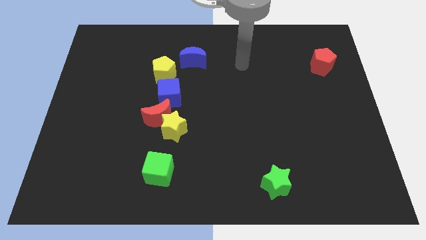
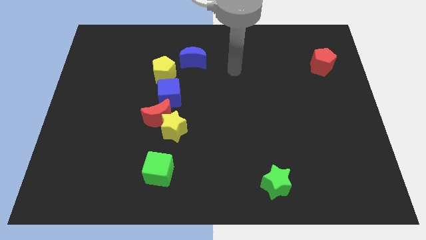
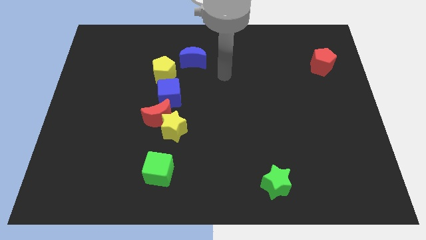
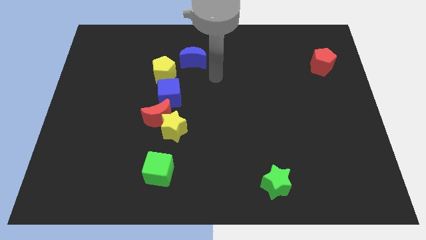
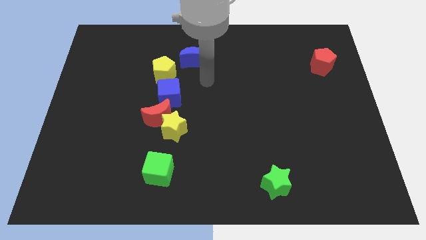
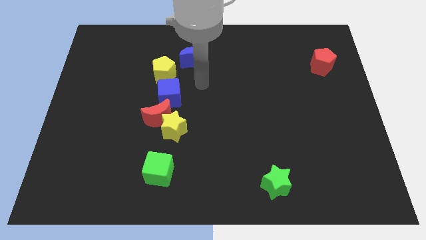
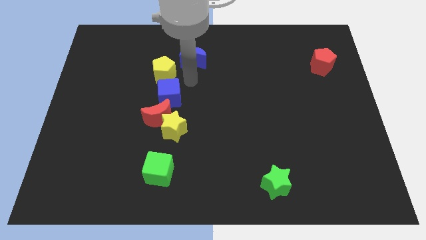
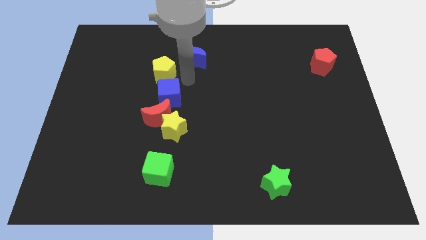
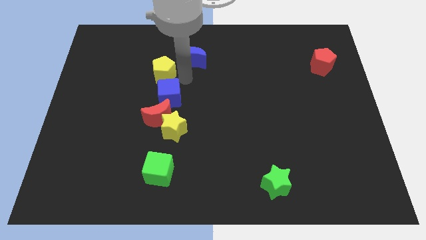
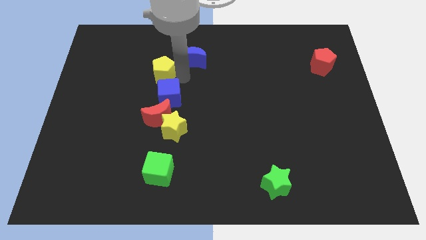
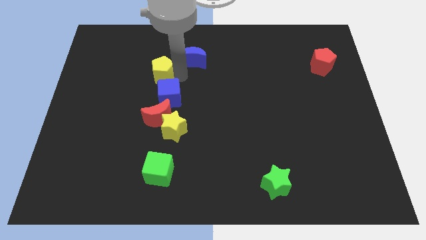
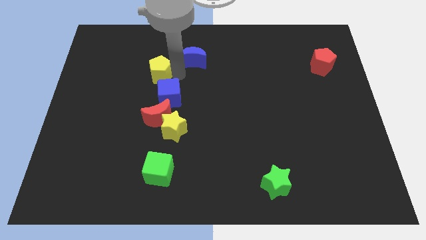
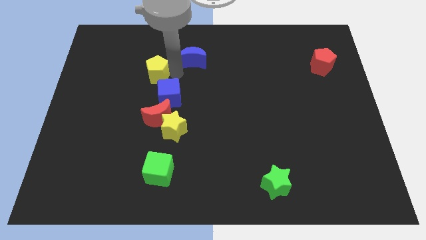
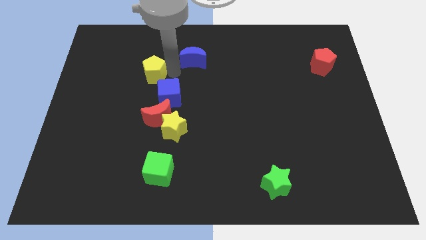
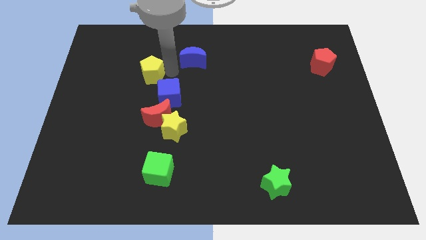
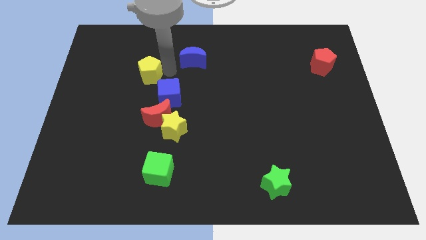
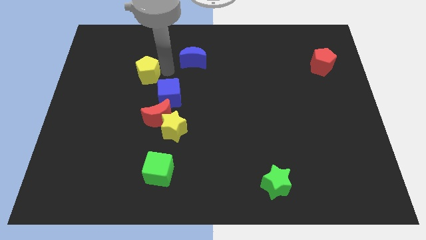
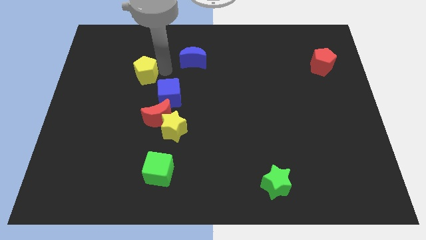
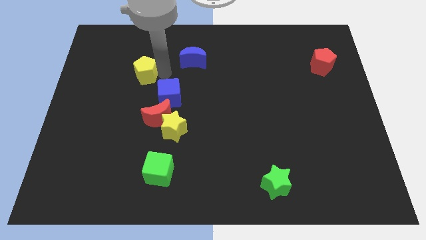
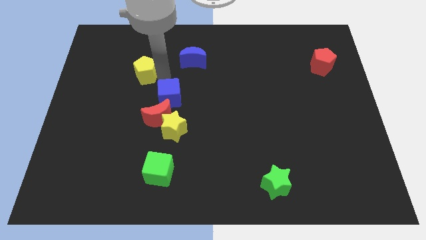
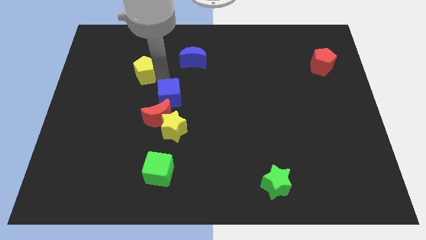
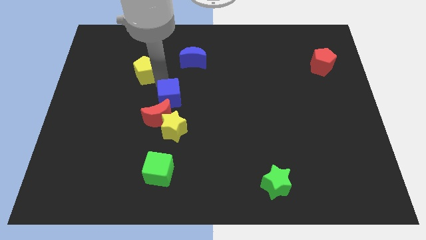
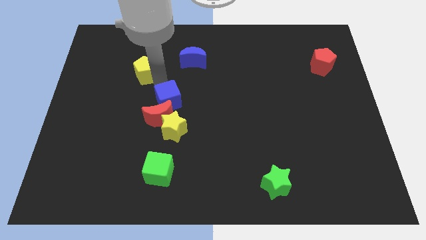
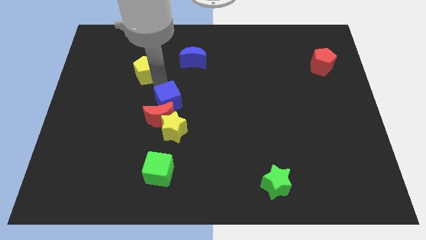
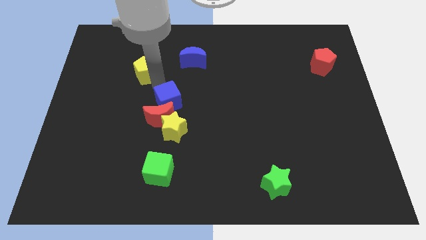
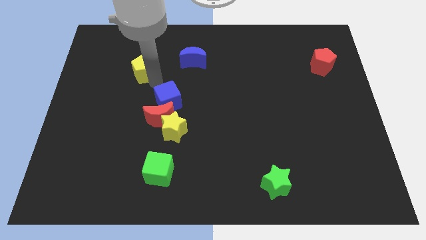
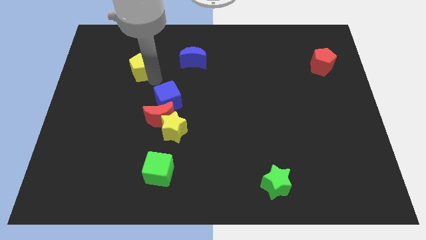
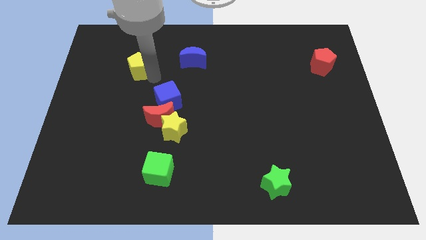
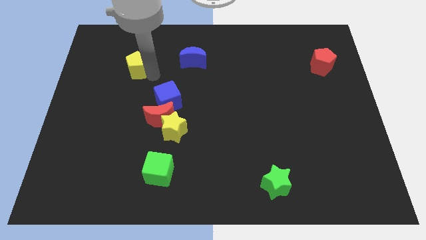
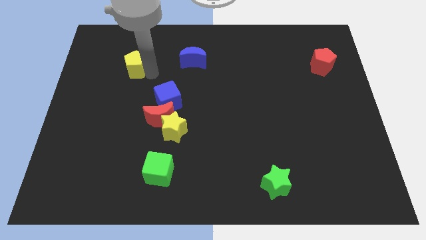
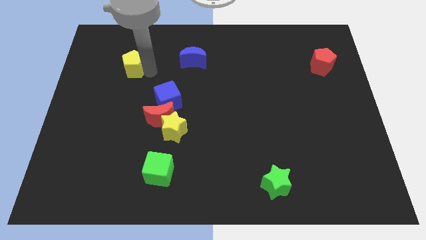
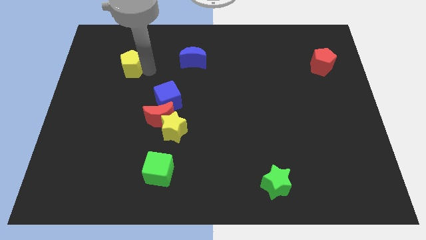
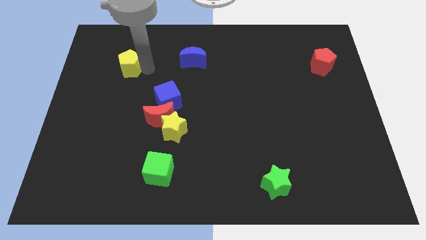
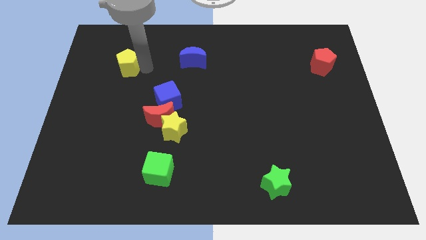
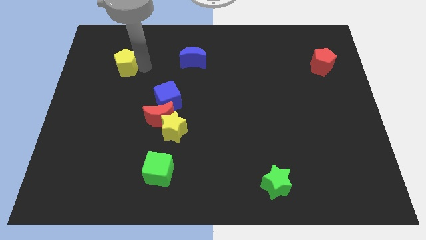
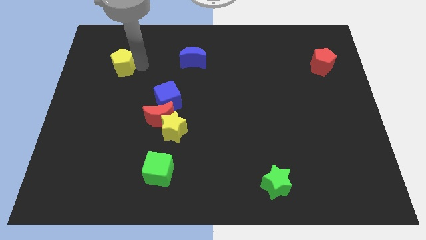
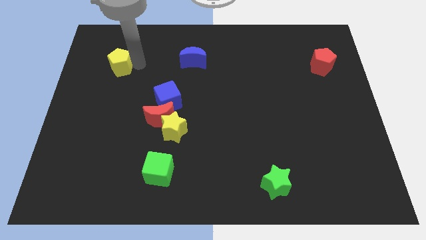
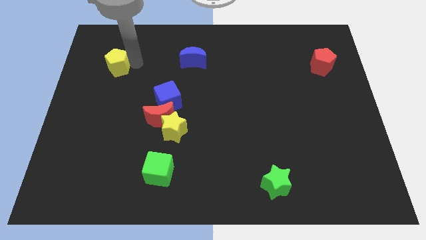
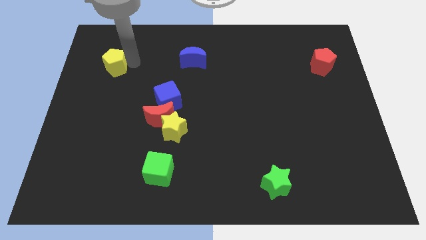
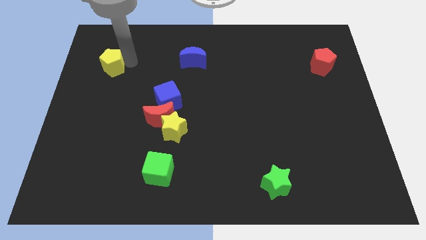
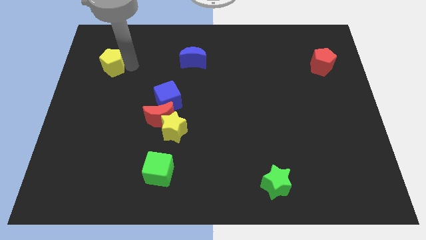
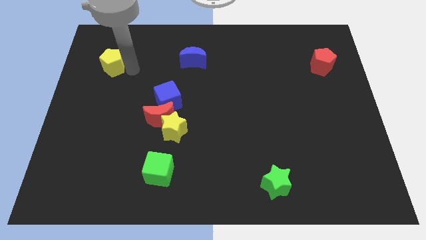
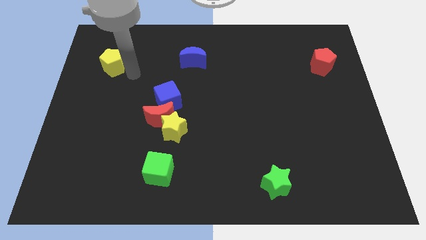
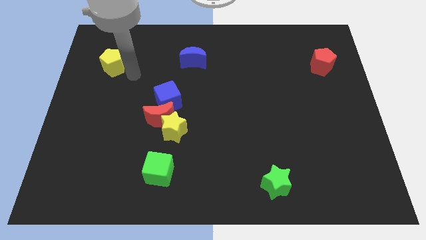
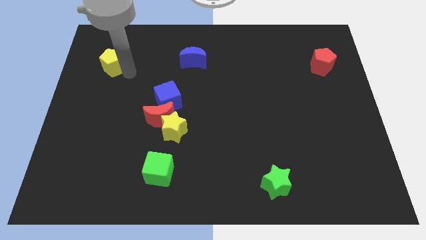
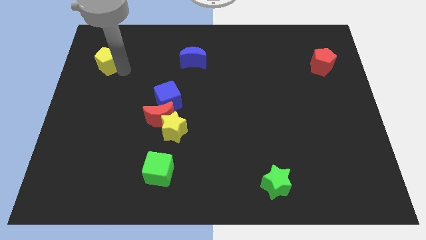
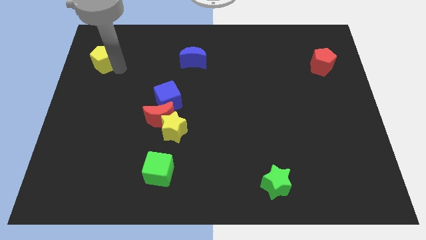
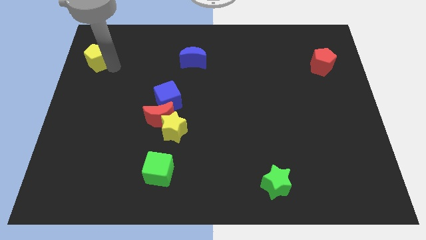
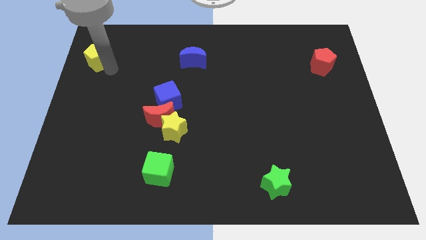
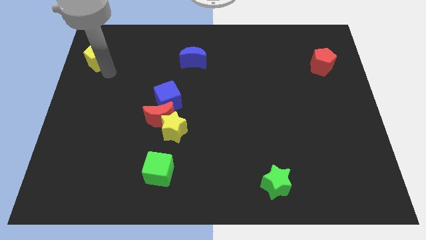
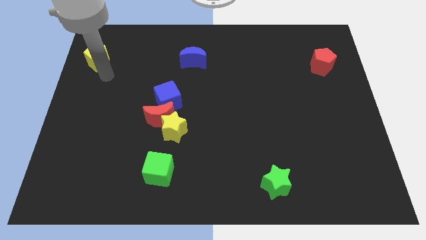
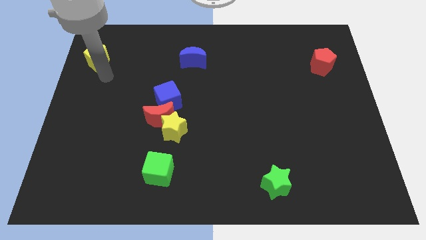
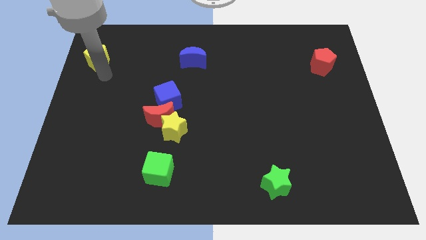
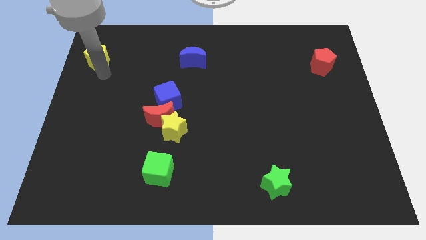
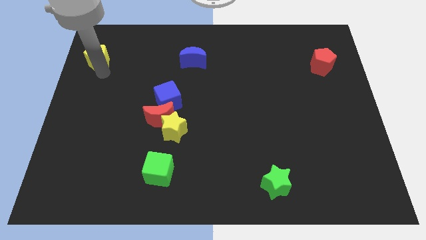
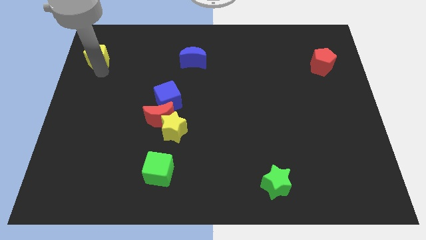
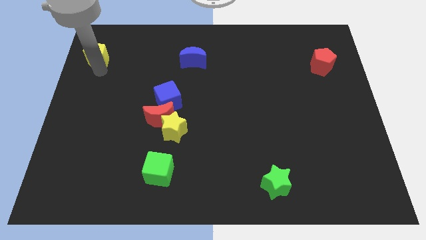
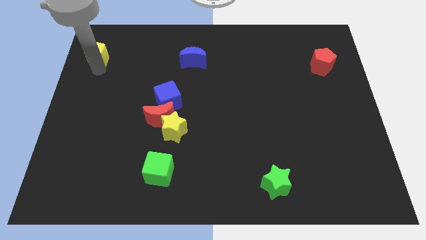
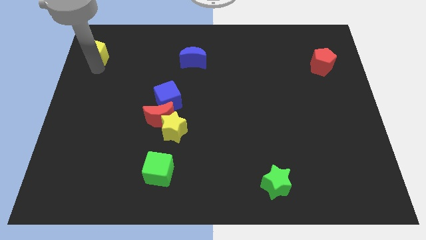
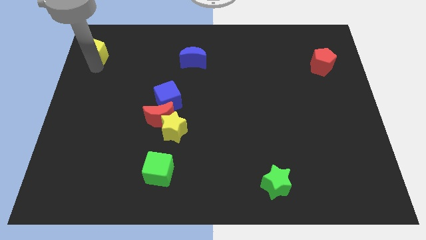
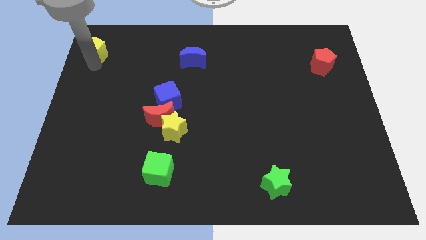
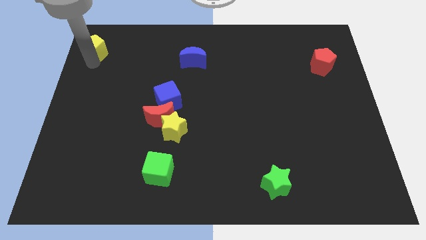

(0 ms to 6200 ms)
push the yellow pentagon to the top left of the board
